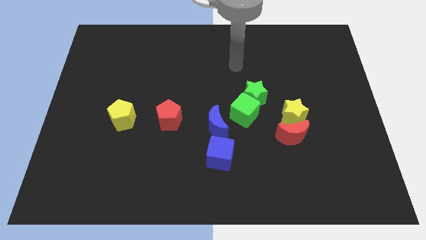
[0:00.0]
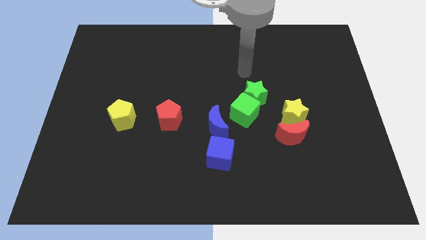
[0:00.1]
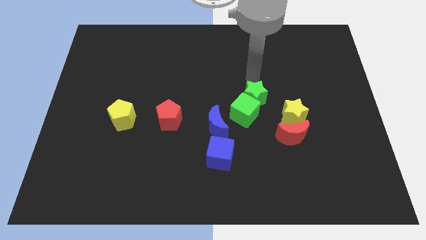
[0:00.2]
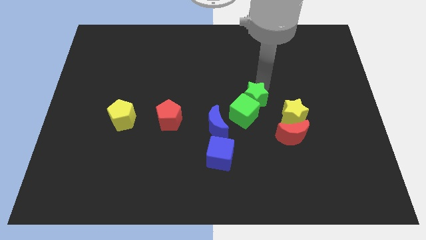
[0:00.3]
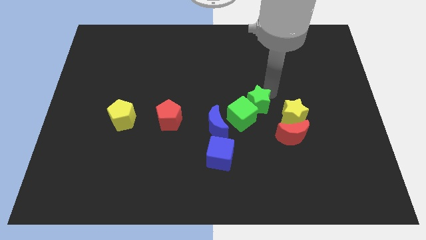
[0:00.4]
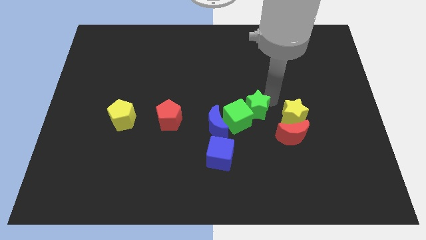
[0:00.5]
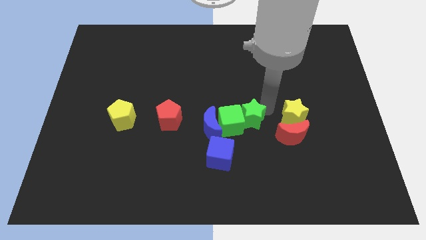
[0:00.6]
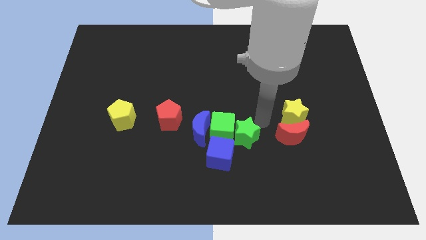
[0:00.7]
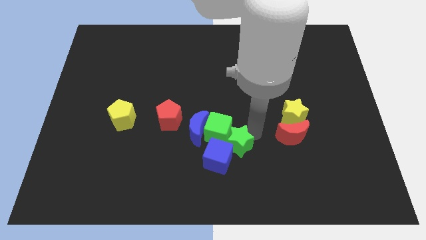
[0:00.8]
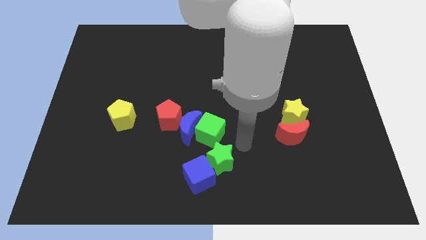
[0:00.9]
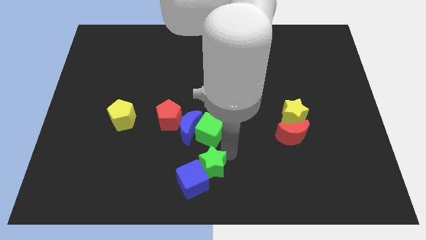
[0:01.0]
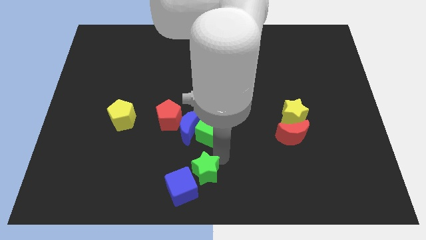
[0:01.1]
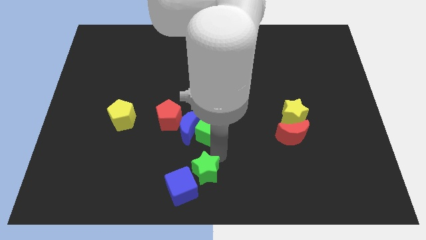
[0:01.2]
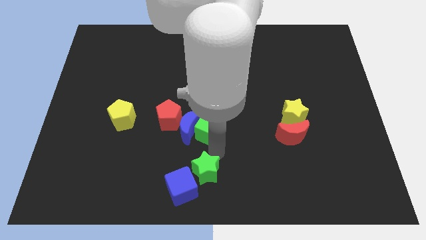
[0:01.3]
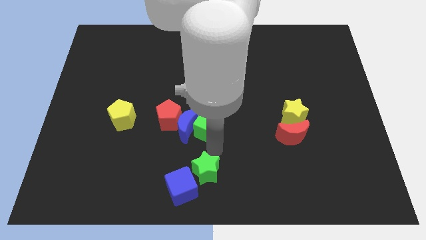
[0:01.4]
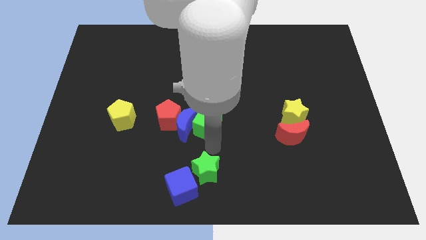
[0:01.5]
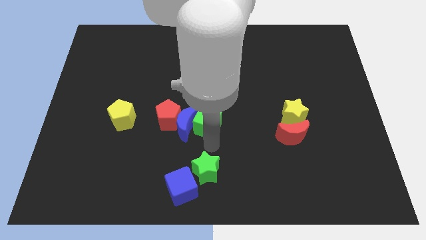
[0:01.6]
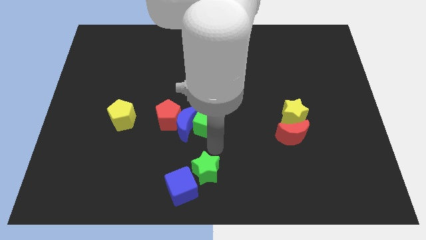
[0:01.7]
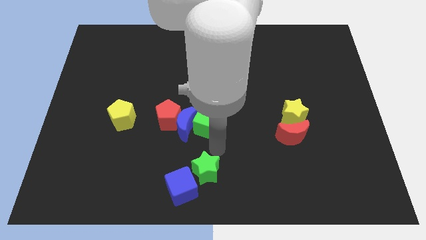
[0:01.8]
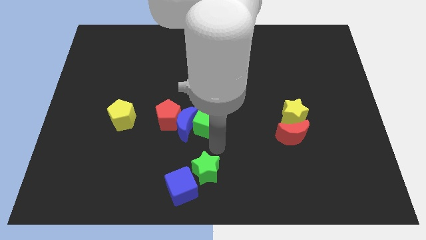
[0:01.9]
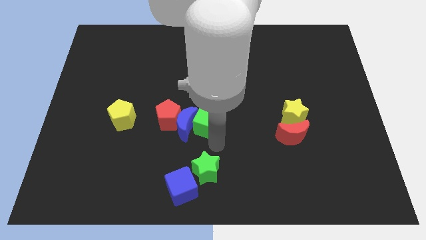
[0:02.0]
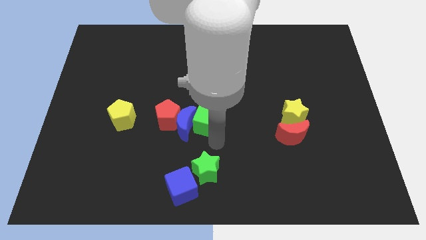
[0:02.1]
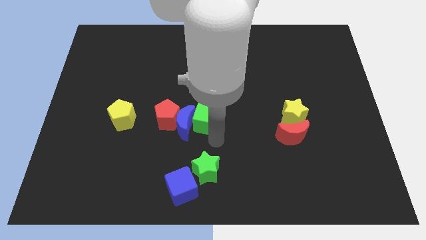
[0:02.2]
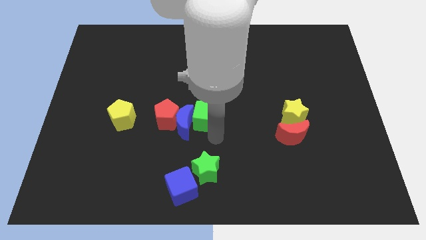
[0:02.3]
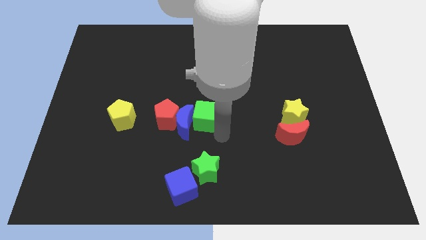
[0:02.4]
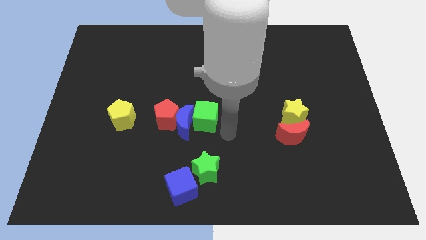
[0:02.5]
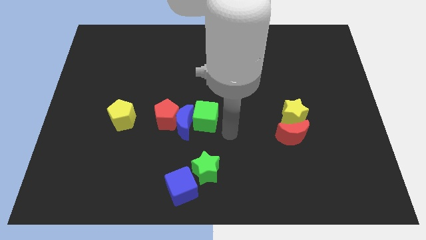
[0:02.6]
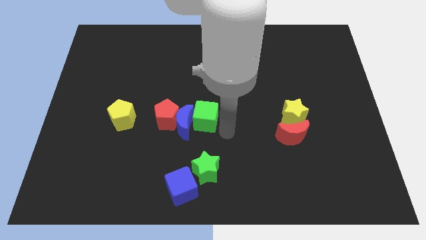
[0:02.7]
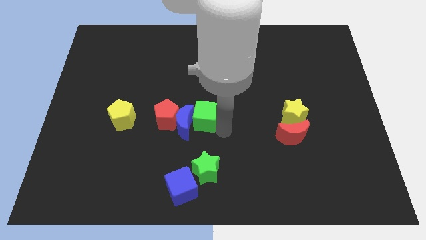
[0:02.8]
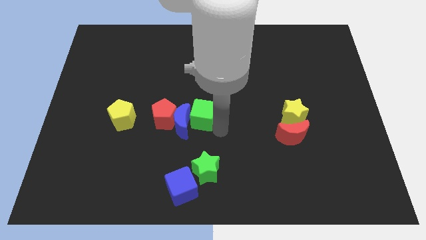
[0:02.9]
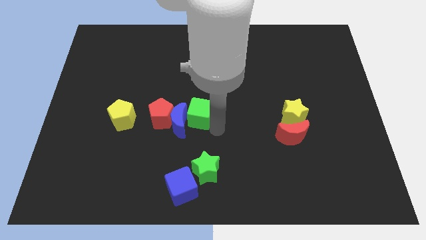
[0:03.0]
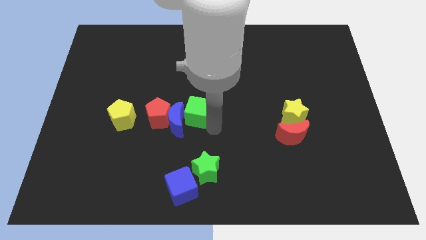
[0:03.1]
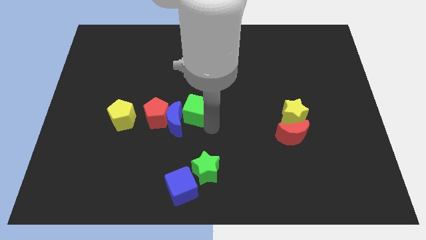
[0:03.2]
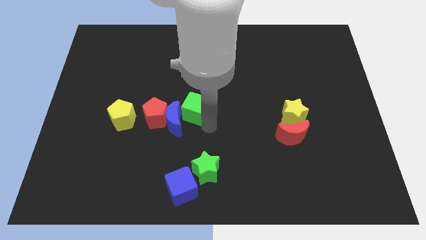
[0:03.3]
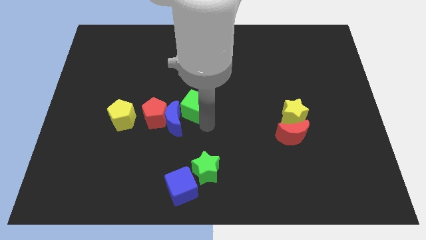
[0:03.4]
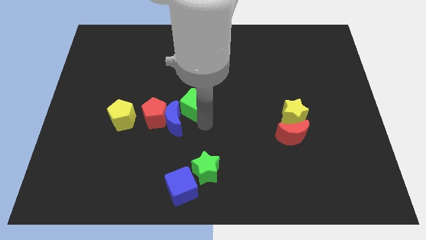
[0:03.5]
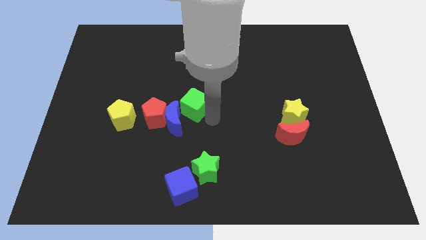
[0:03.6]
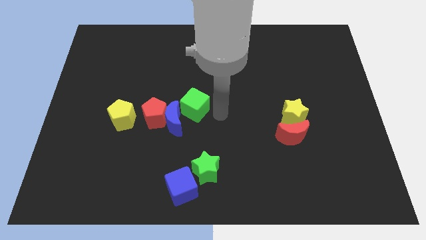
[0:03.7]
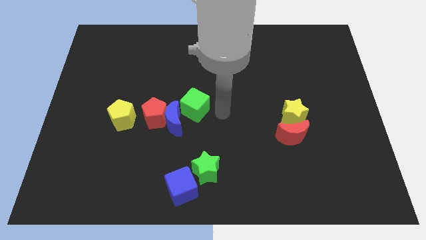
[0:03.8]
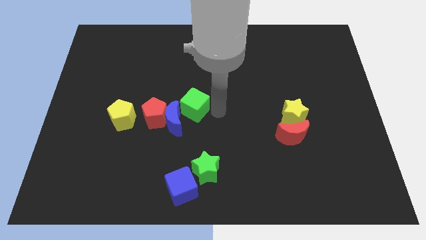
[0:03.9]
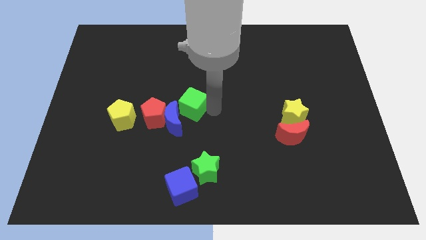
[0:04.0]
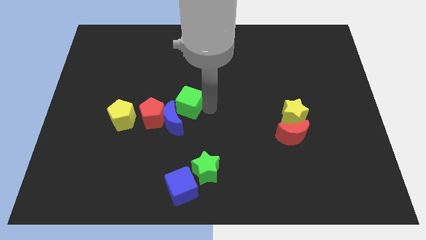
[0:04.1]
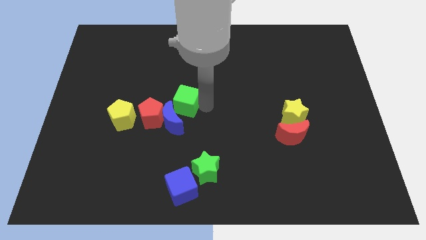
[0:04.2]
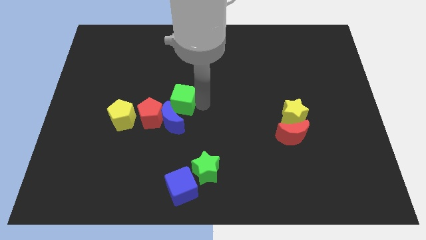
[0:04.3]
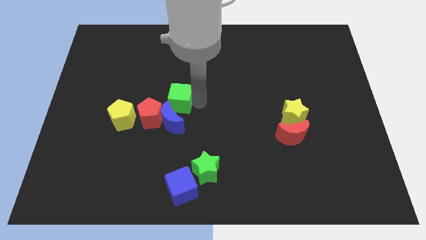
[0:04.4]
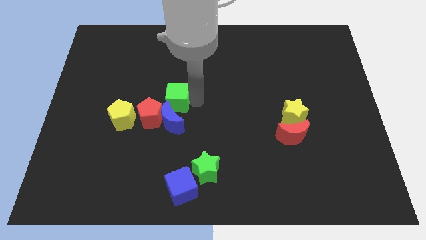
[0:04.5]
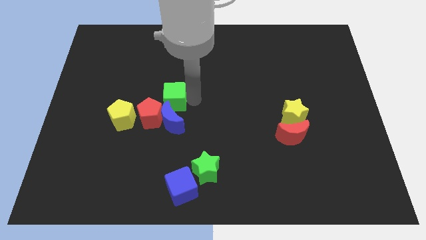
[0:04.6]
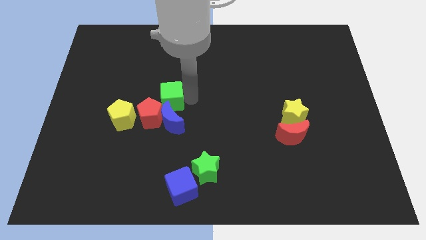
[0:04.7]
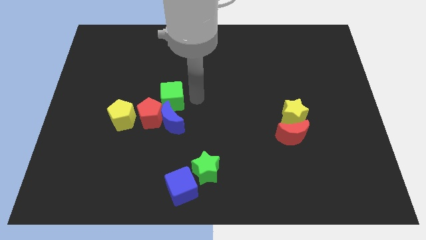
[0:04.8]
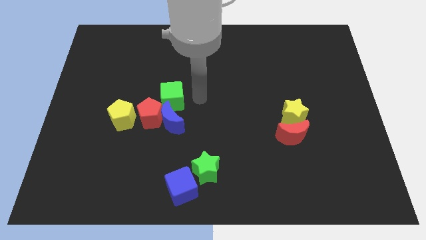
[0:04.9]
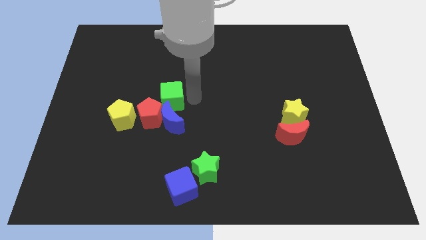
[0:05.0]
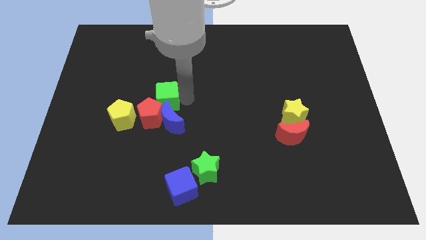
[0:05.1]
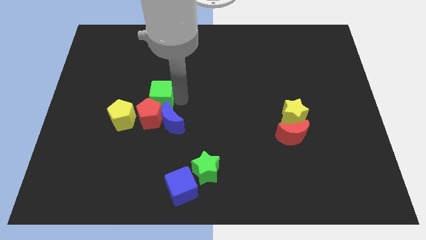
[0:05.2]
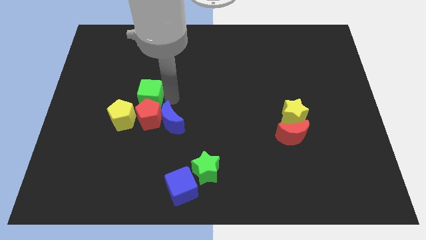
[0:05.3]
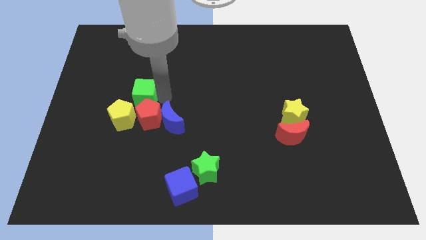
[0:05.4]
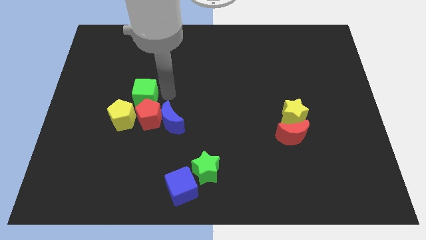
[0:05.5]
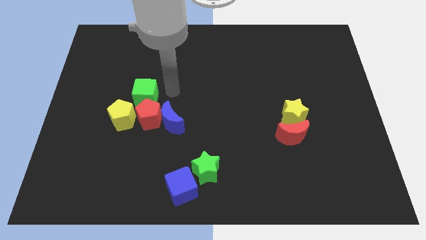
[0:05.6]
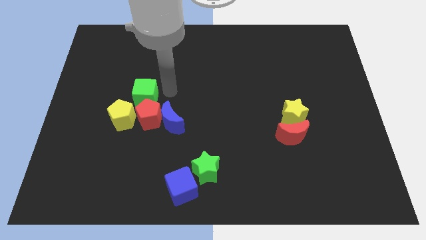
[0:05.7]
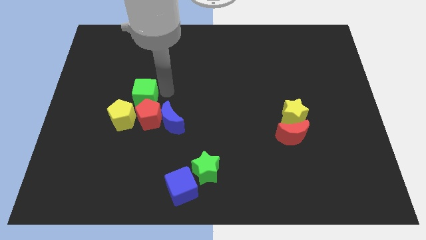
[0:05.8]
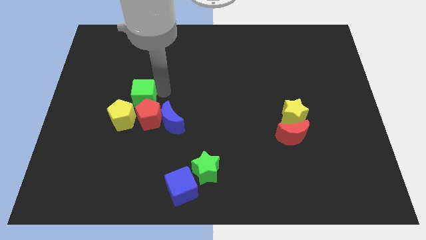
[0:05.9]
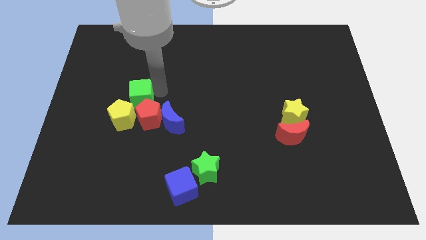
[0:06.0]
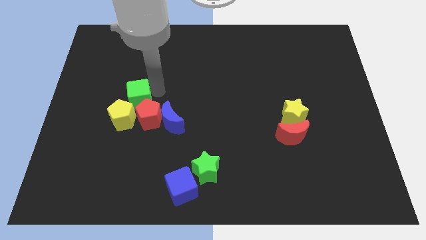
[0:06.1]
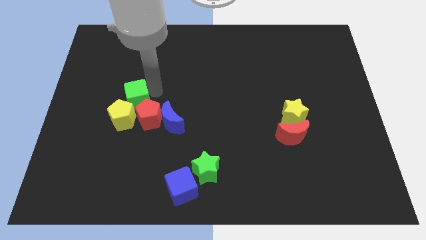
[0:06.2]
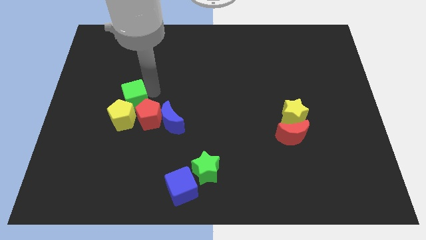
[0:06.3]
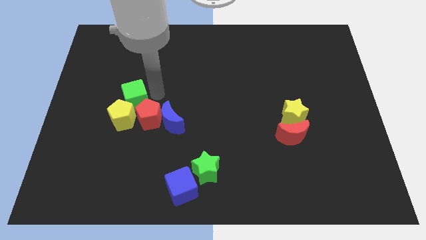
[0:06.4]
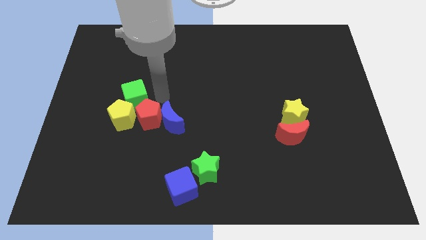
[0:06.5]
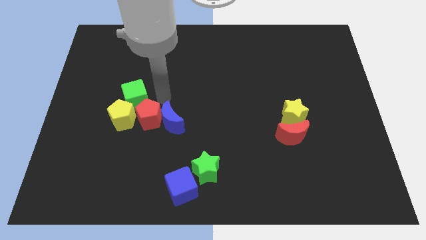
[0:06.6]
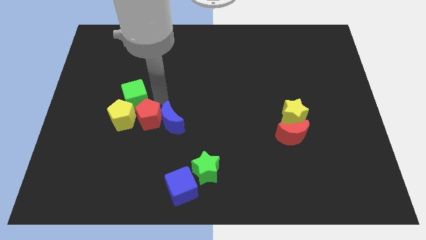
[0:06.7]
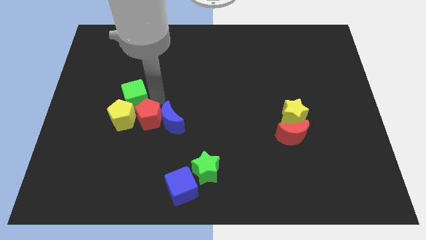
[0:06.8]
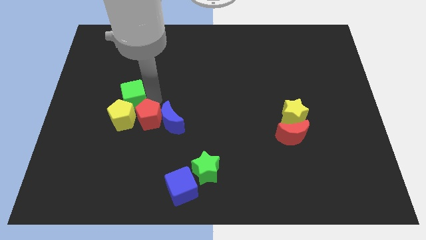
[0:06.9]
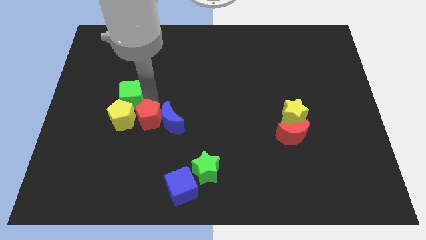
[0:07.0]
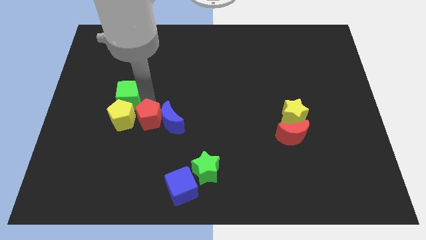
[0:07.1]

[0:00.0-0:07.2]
push the green cube diagonally up and to the left of the yellow pentagon
